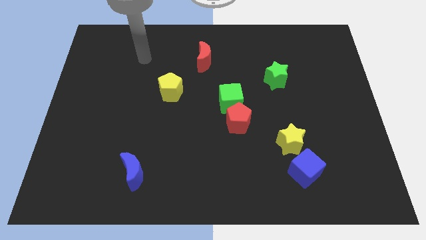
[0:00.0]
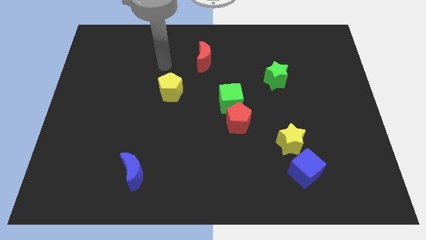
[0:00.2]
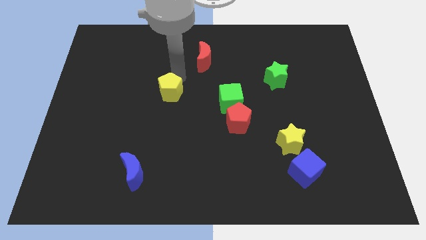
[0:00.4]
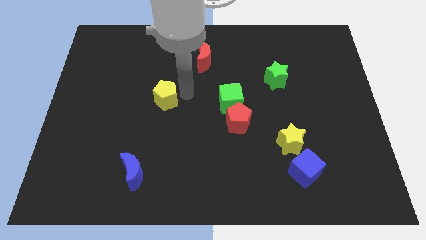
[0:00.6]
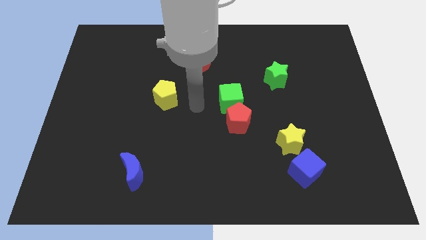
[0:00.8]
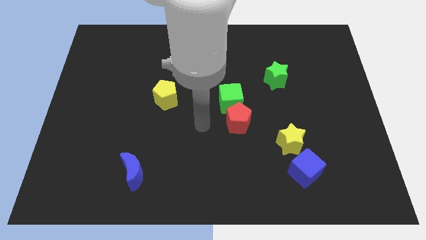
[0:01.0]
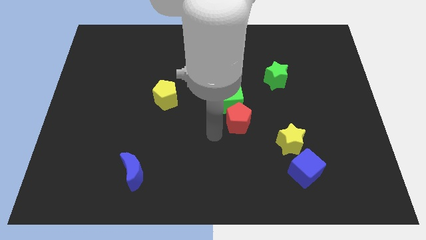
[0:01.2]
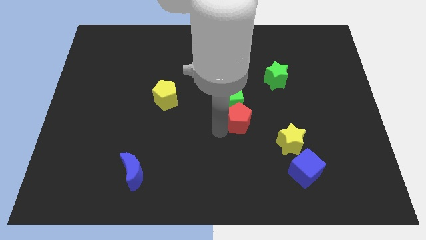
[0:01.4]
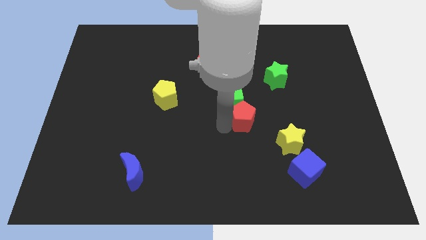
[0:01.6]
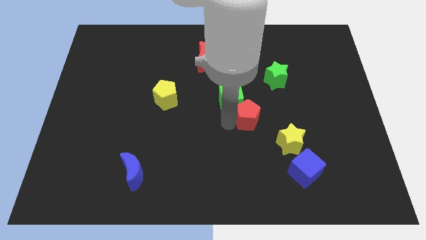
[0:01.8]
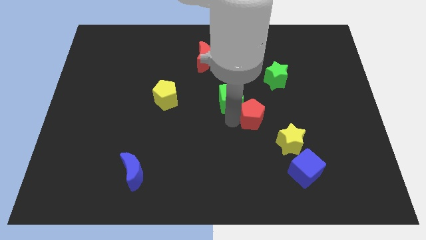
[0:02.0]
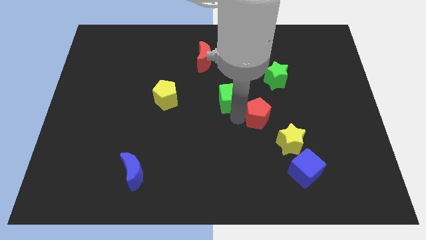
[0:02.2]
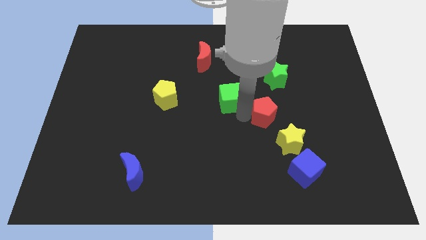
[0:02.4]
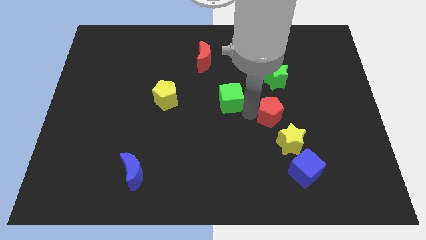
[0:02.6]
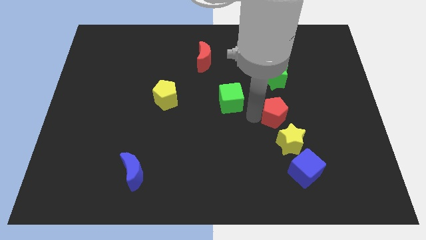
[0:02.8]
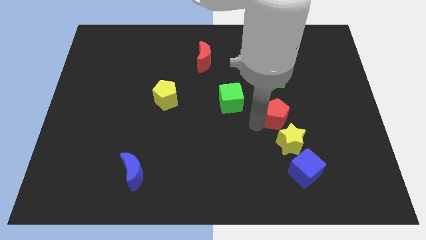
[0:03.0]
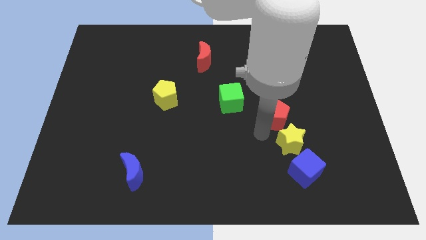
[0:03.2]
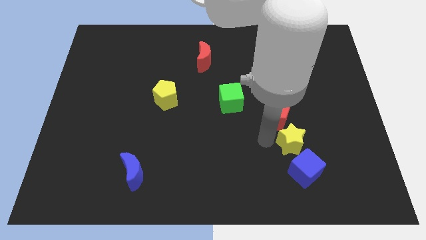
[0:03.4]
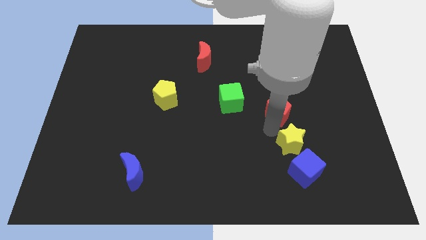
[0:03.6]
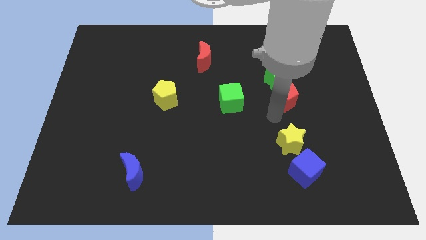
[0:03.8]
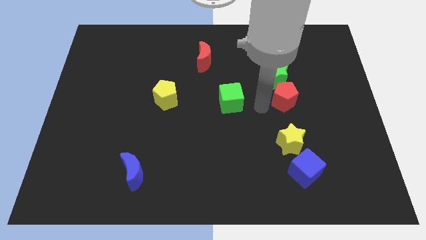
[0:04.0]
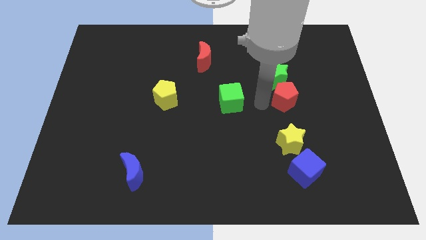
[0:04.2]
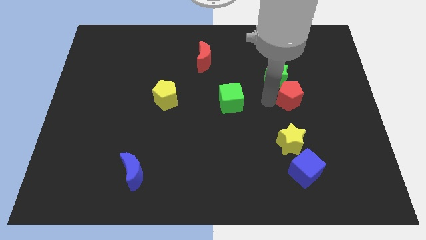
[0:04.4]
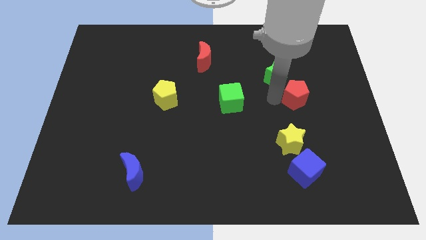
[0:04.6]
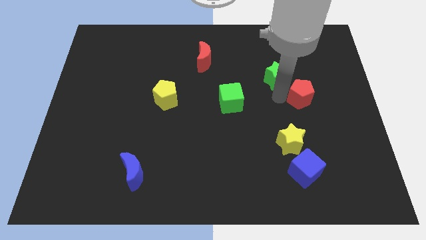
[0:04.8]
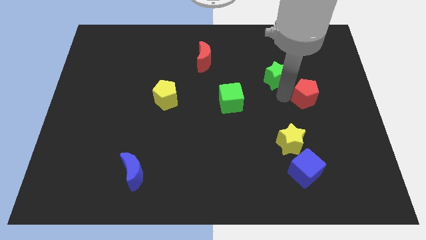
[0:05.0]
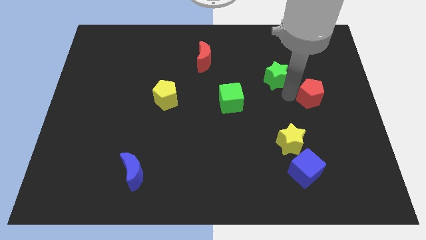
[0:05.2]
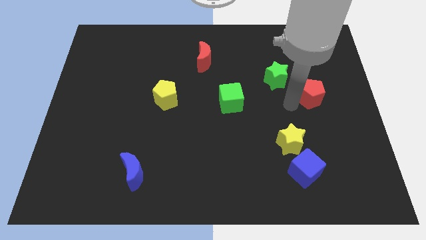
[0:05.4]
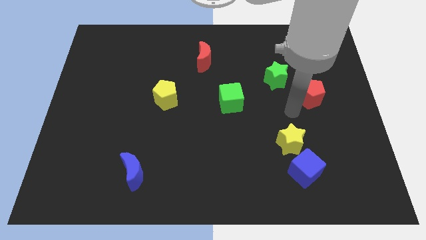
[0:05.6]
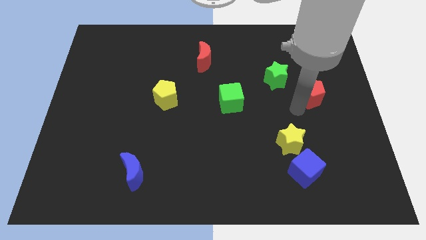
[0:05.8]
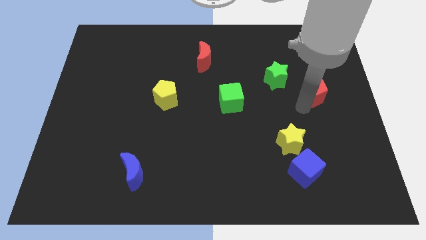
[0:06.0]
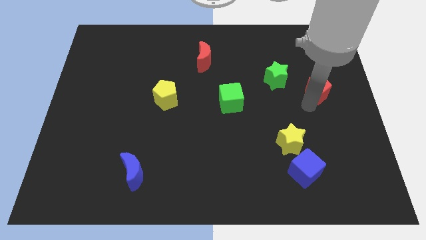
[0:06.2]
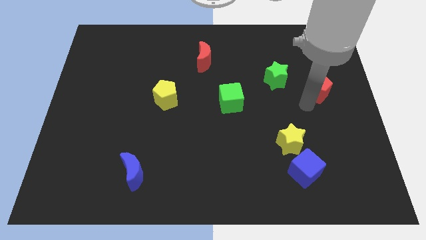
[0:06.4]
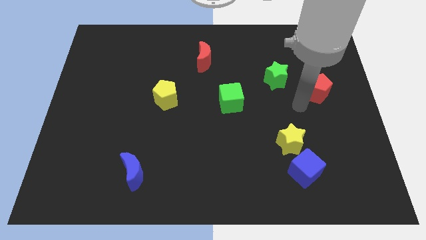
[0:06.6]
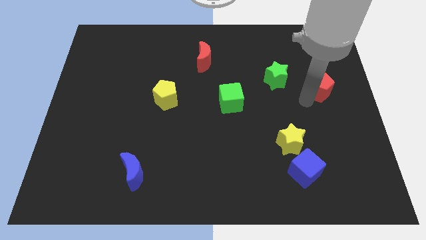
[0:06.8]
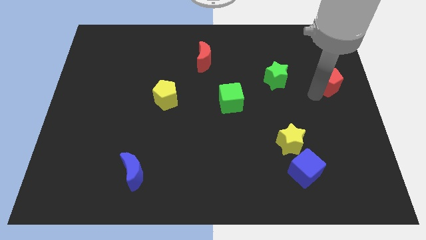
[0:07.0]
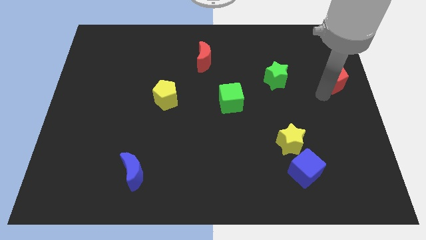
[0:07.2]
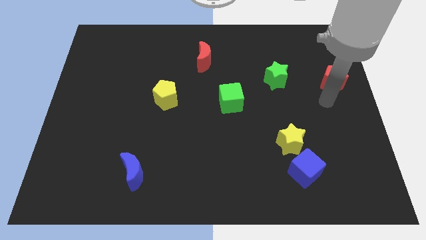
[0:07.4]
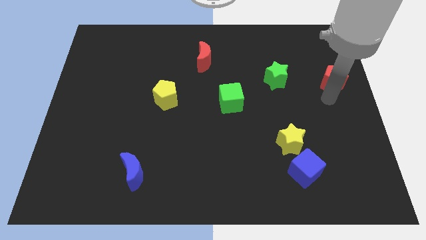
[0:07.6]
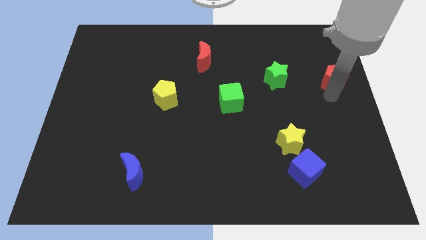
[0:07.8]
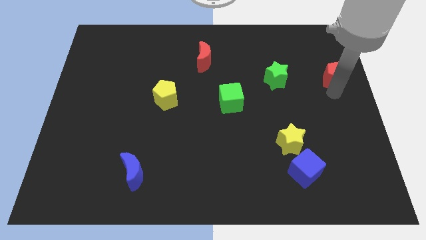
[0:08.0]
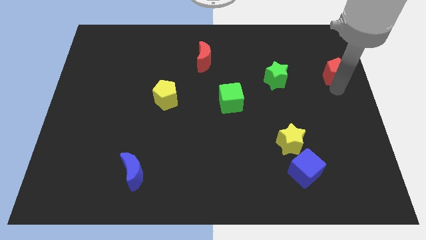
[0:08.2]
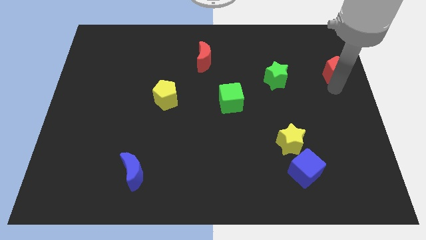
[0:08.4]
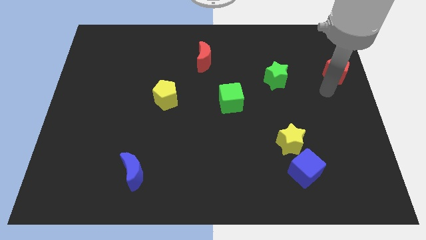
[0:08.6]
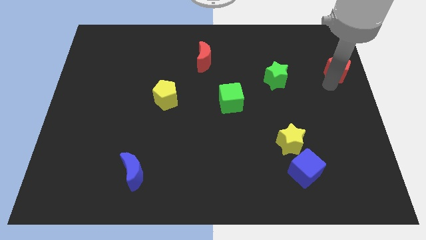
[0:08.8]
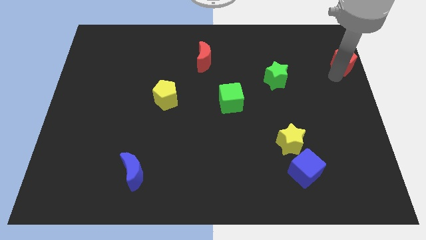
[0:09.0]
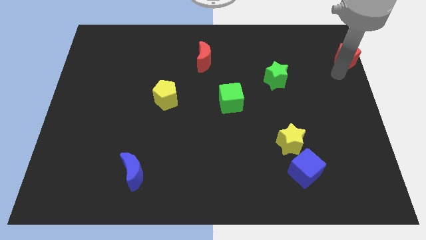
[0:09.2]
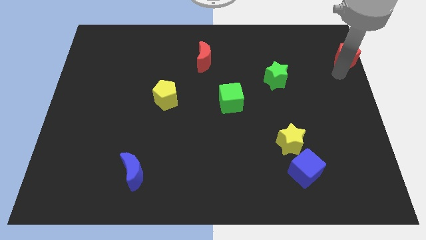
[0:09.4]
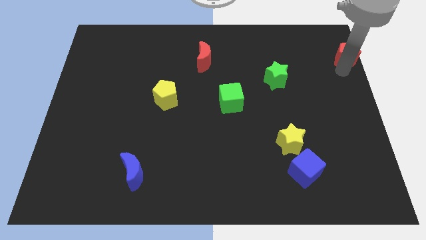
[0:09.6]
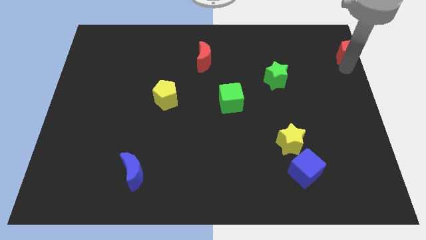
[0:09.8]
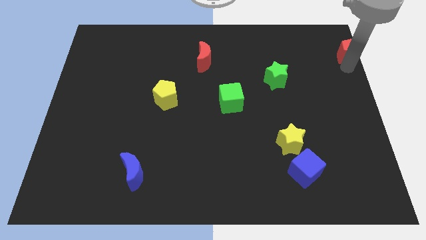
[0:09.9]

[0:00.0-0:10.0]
move the red pentagon to the upper right corner

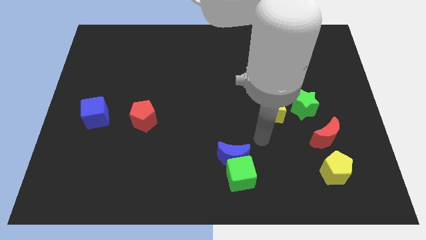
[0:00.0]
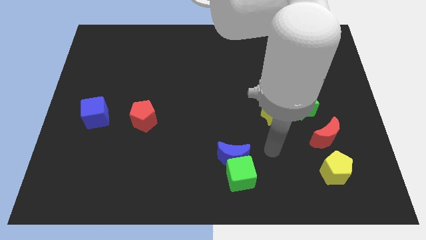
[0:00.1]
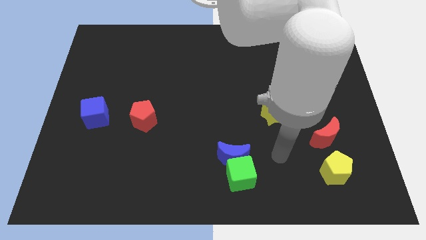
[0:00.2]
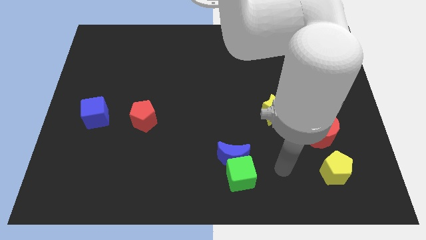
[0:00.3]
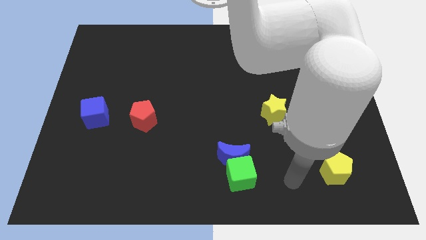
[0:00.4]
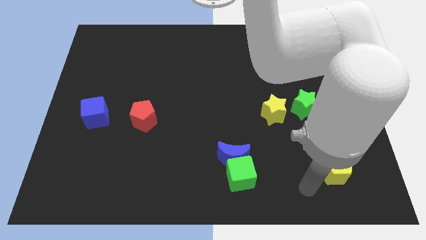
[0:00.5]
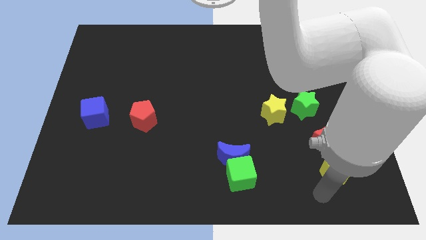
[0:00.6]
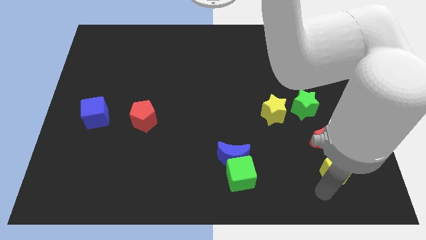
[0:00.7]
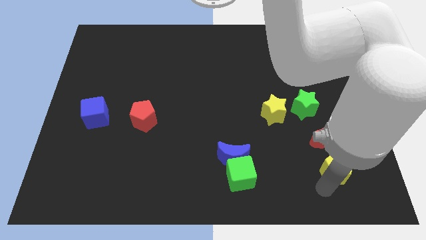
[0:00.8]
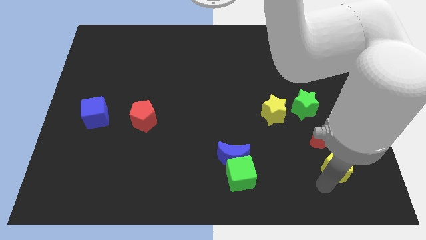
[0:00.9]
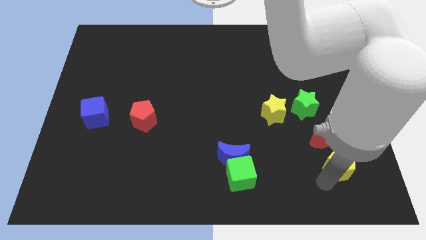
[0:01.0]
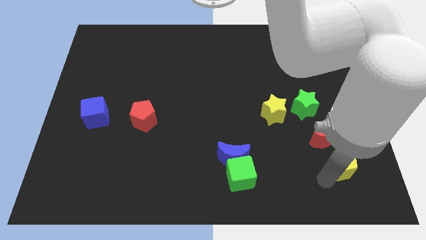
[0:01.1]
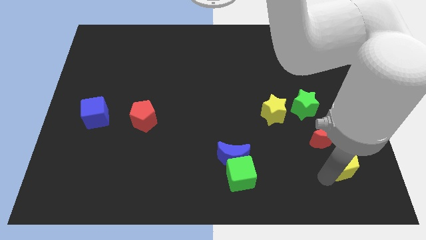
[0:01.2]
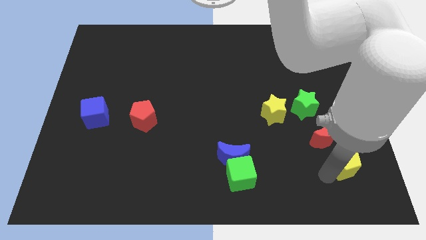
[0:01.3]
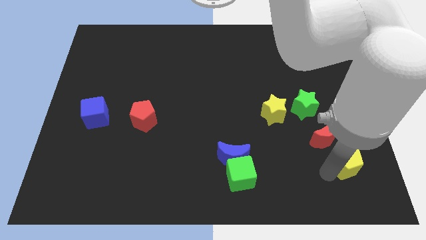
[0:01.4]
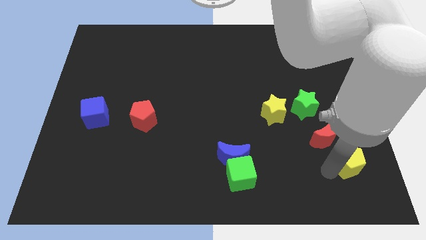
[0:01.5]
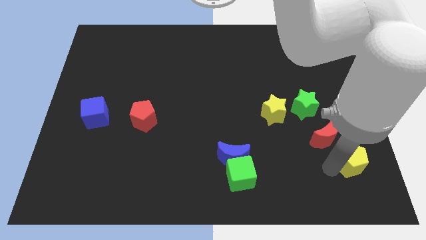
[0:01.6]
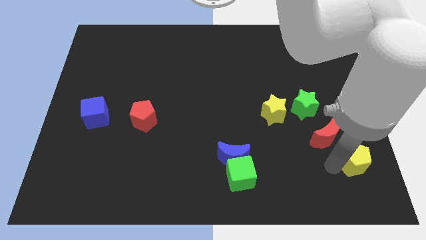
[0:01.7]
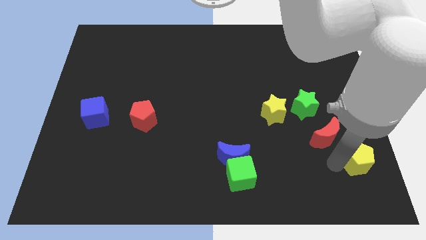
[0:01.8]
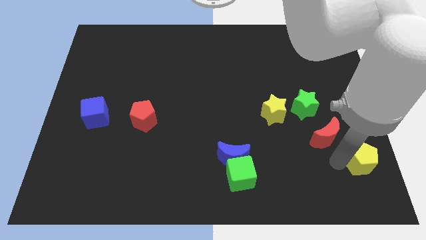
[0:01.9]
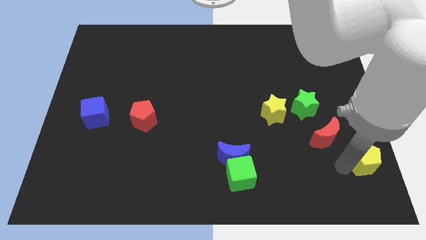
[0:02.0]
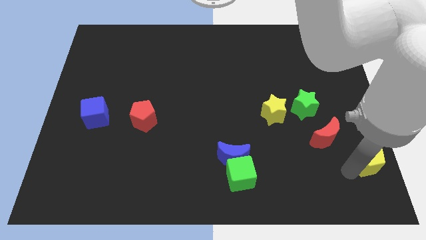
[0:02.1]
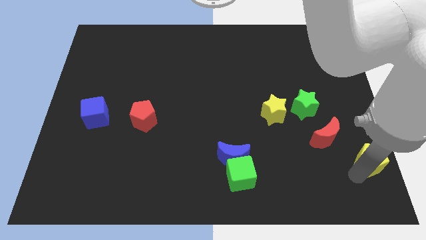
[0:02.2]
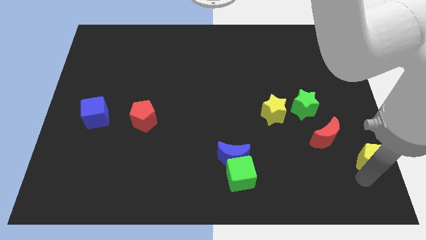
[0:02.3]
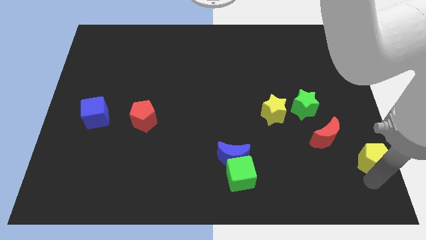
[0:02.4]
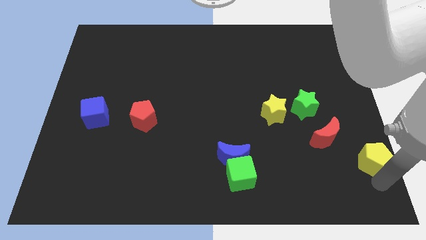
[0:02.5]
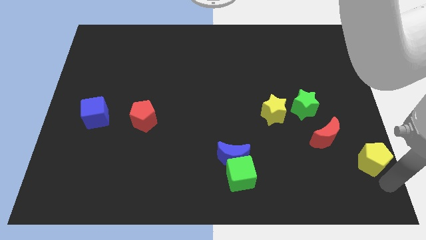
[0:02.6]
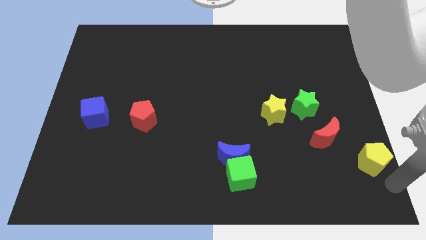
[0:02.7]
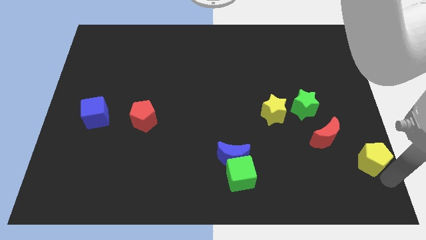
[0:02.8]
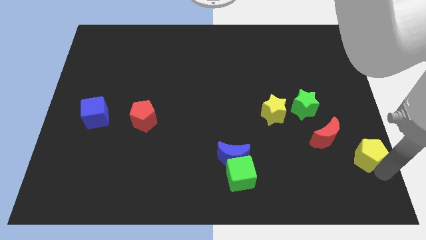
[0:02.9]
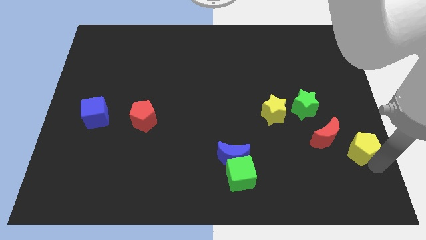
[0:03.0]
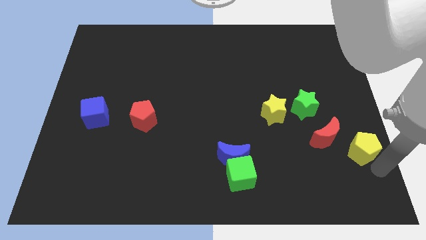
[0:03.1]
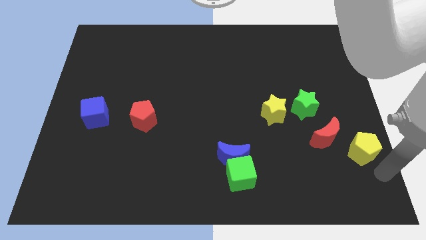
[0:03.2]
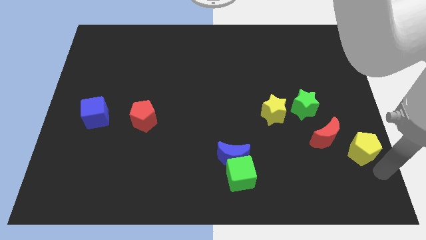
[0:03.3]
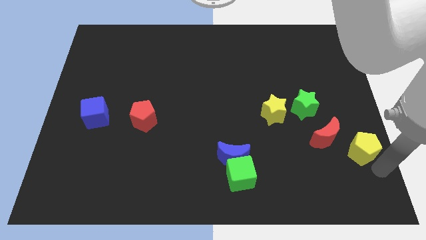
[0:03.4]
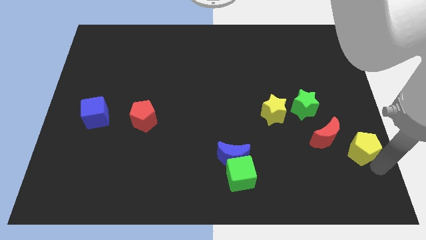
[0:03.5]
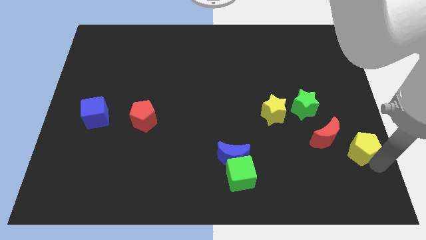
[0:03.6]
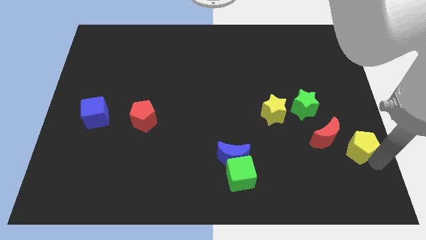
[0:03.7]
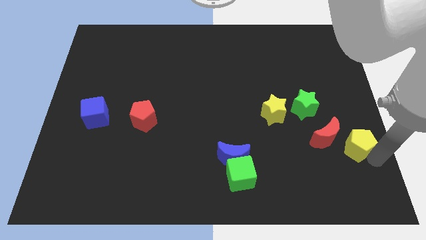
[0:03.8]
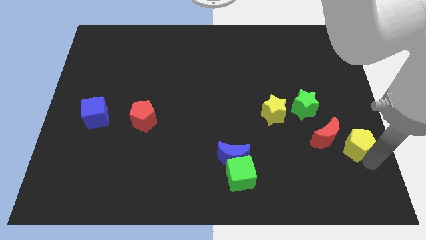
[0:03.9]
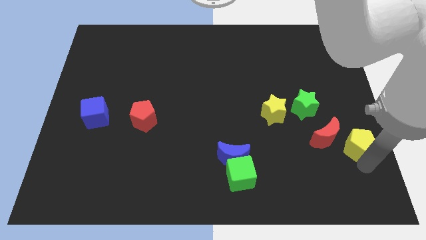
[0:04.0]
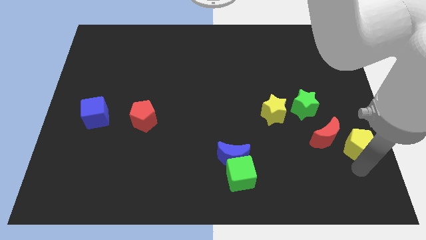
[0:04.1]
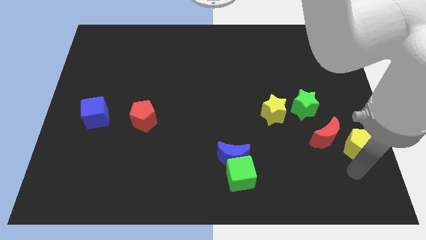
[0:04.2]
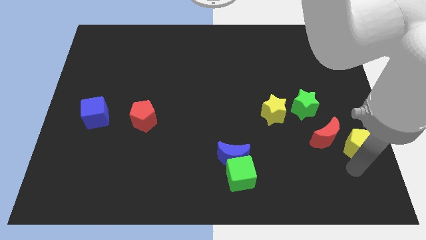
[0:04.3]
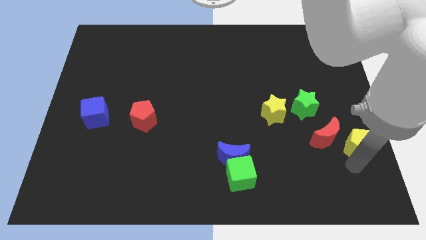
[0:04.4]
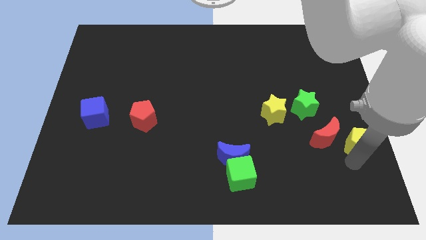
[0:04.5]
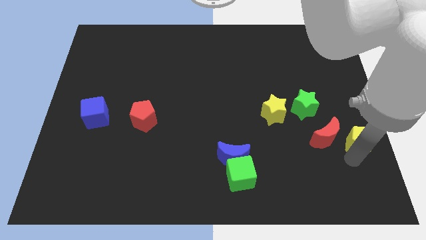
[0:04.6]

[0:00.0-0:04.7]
push the yellow pentagon to the right side of the board
